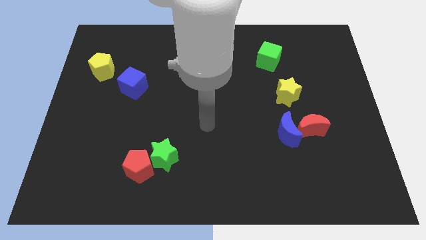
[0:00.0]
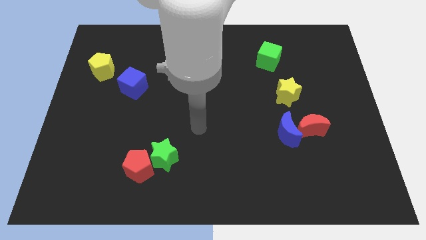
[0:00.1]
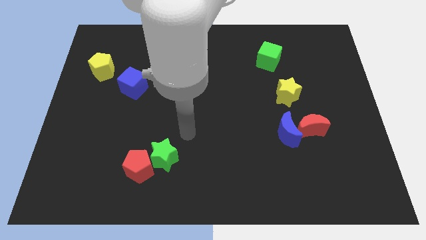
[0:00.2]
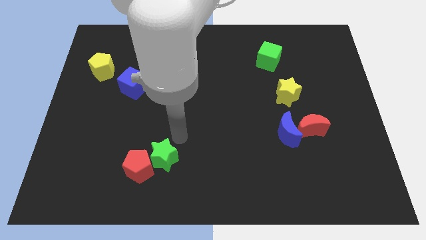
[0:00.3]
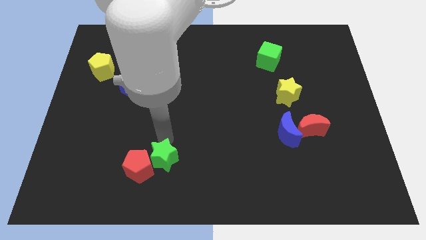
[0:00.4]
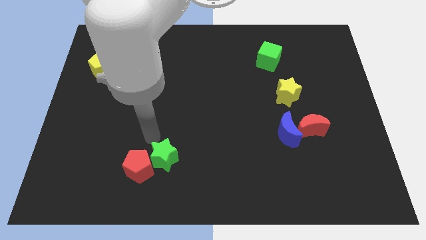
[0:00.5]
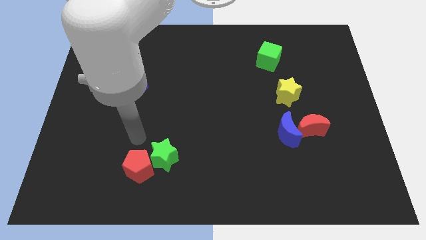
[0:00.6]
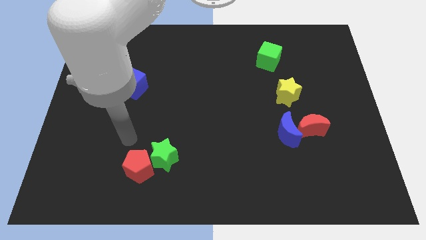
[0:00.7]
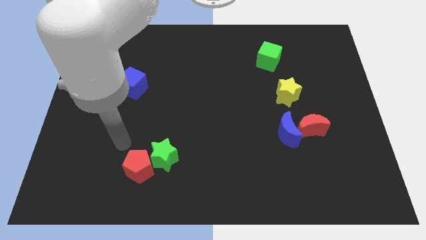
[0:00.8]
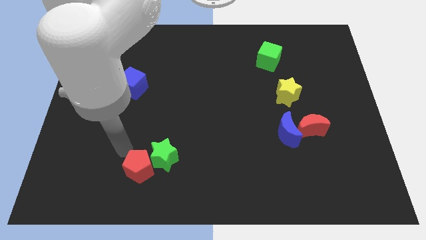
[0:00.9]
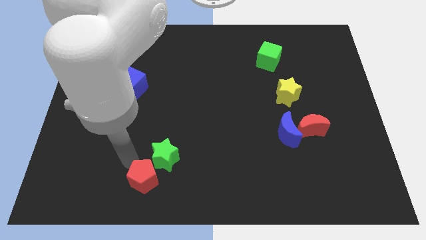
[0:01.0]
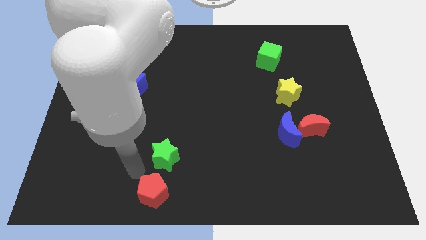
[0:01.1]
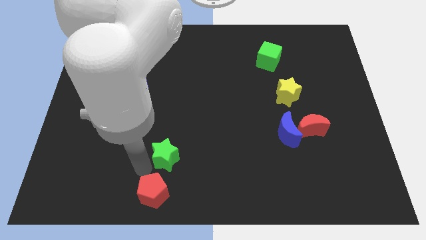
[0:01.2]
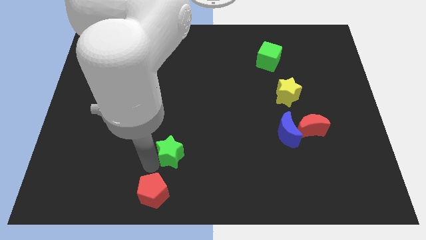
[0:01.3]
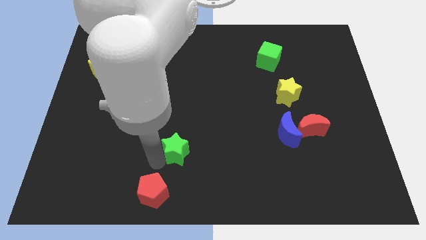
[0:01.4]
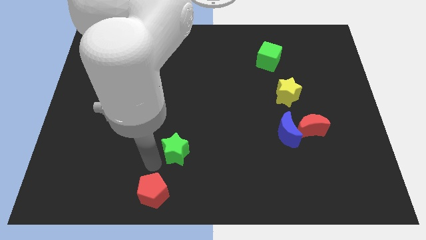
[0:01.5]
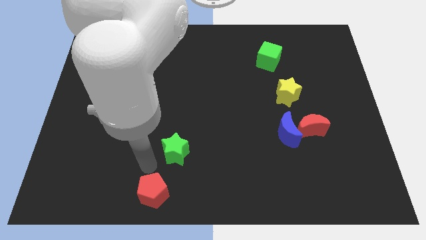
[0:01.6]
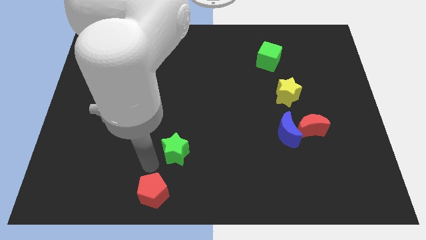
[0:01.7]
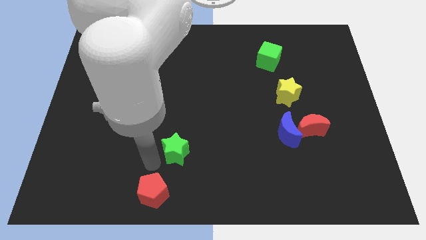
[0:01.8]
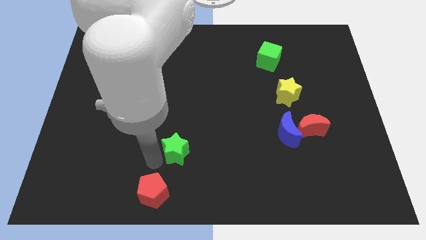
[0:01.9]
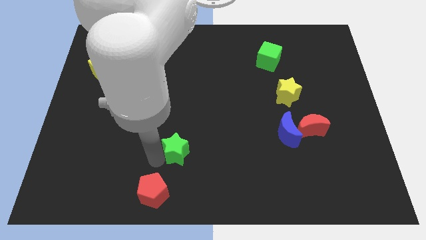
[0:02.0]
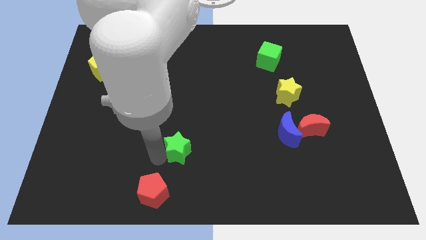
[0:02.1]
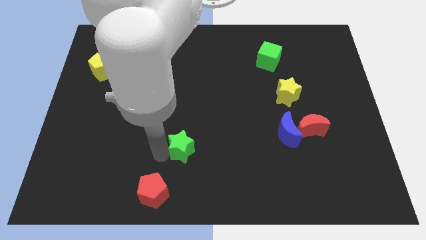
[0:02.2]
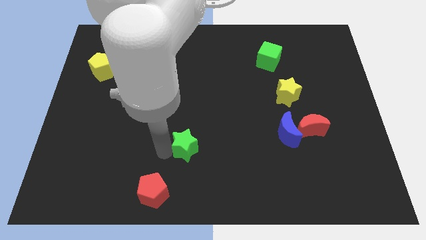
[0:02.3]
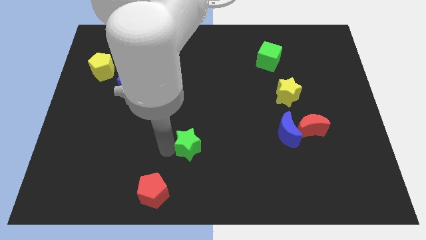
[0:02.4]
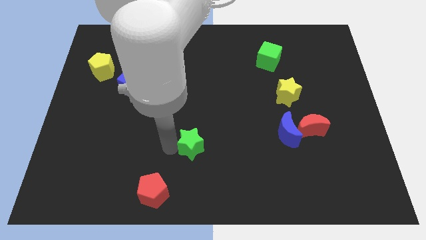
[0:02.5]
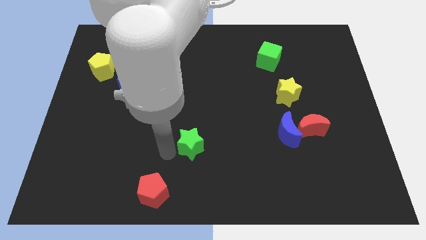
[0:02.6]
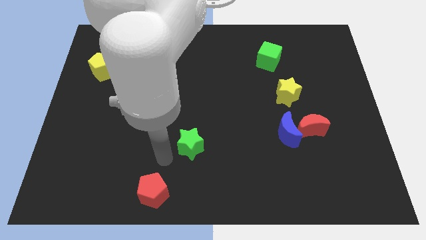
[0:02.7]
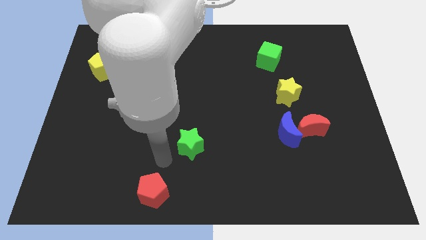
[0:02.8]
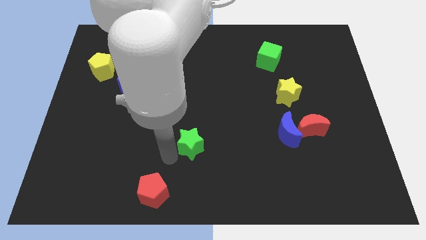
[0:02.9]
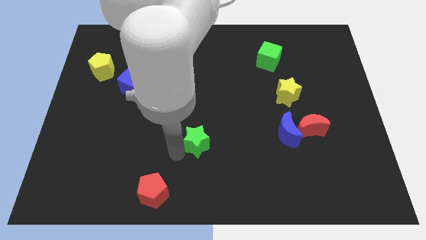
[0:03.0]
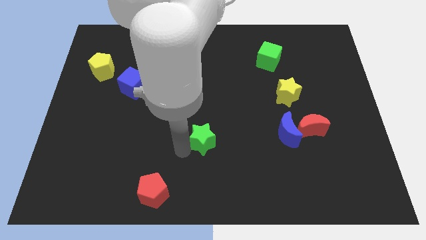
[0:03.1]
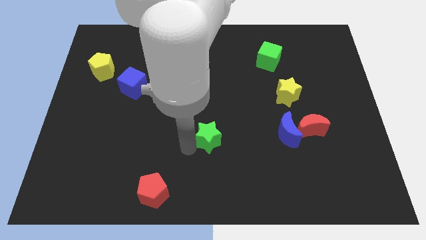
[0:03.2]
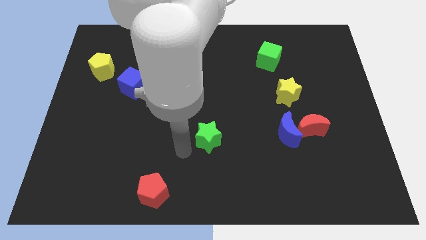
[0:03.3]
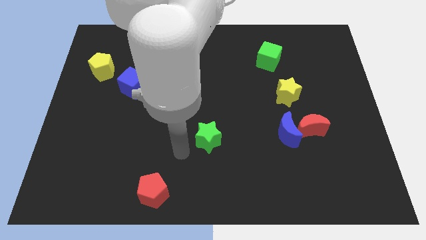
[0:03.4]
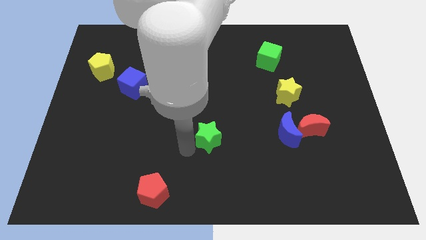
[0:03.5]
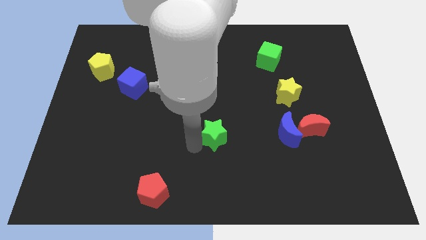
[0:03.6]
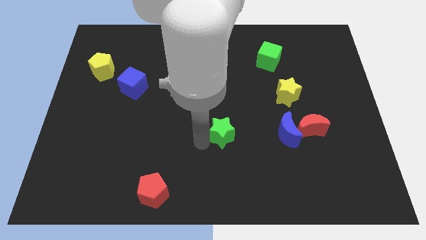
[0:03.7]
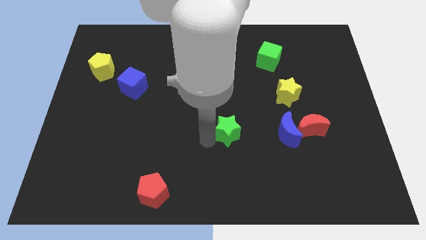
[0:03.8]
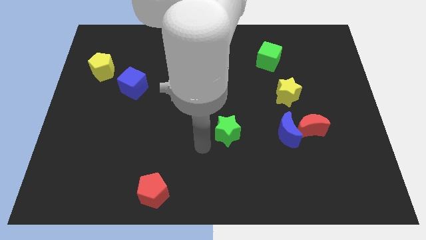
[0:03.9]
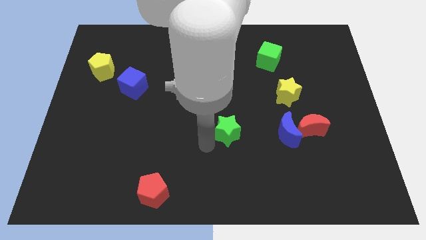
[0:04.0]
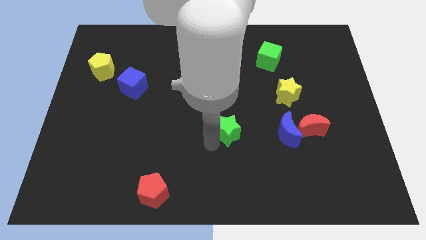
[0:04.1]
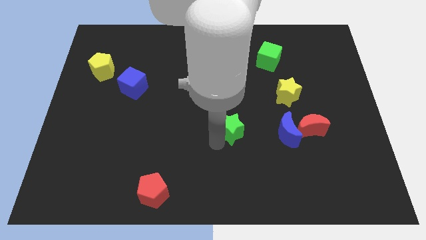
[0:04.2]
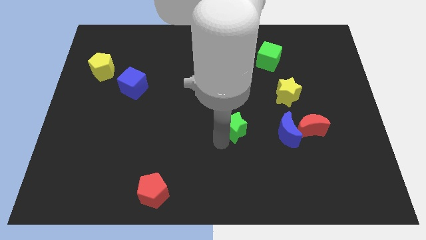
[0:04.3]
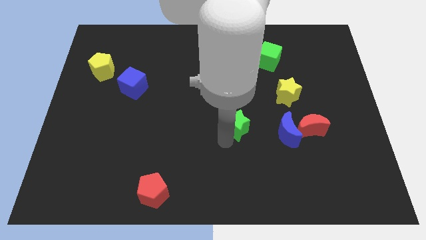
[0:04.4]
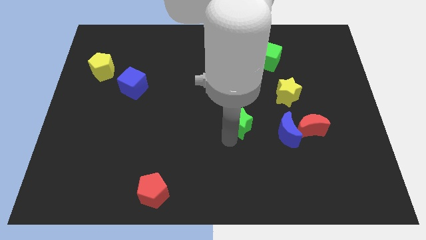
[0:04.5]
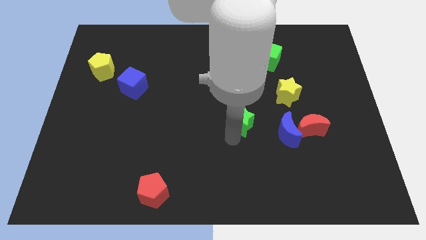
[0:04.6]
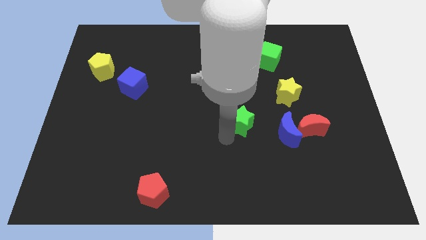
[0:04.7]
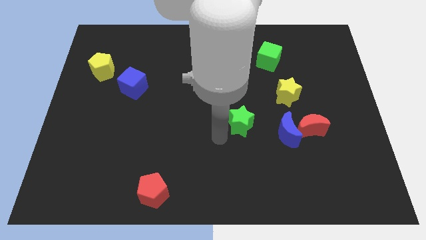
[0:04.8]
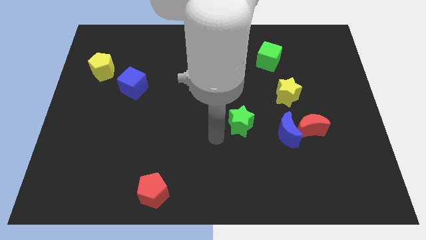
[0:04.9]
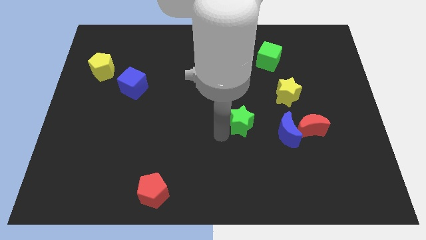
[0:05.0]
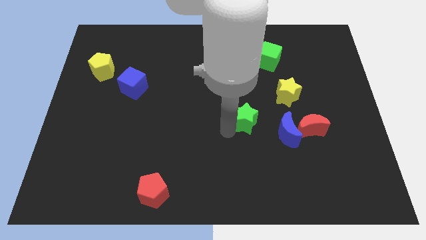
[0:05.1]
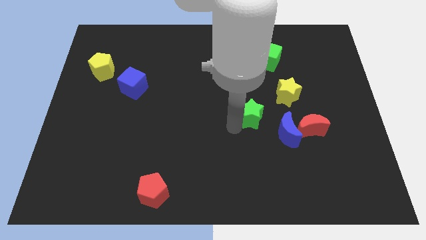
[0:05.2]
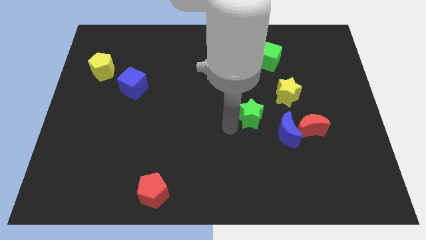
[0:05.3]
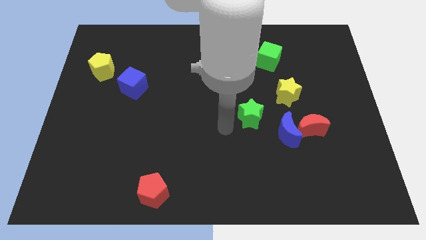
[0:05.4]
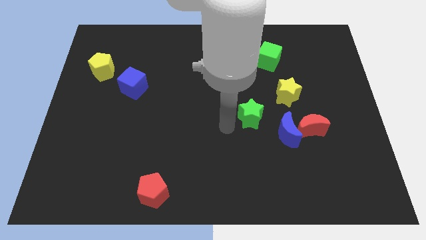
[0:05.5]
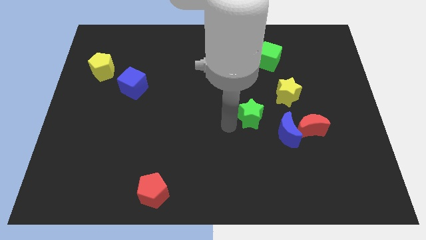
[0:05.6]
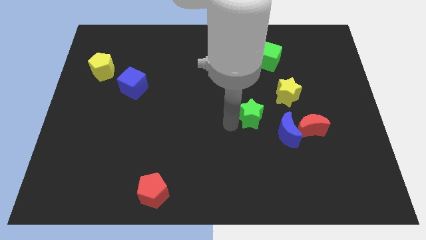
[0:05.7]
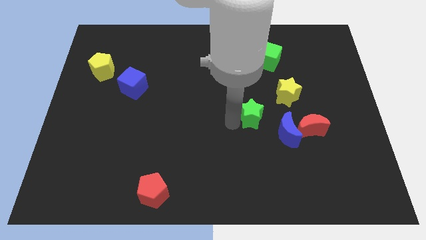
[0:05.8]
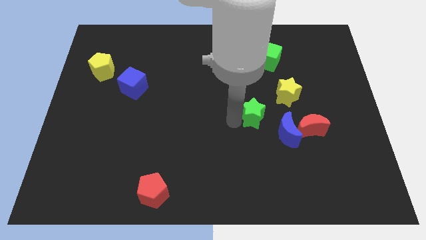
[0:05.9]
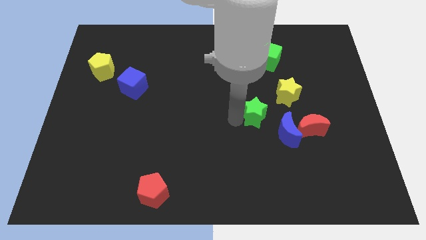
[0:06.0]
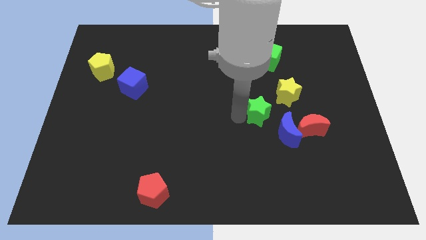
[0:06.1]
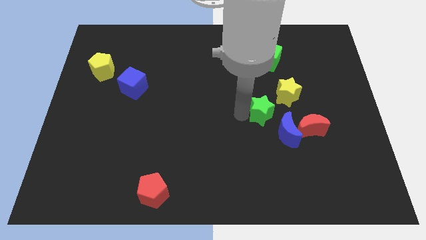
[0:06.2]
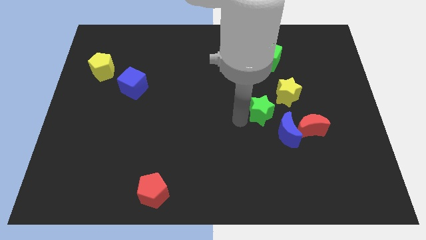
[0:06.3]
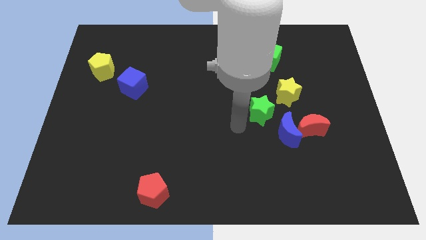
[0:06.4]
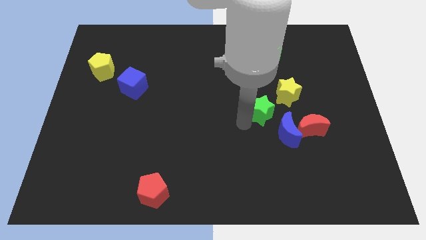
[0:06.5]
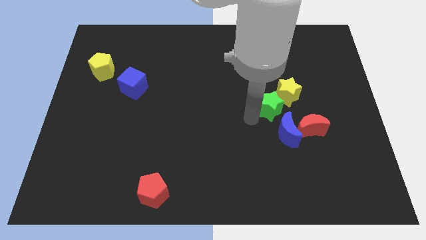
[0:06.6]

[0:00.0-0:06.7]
slide the green star close to the yellow star
